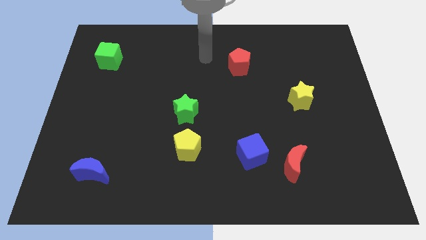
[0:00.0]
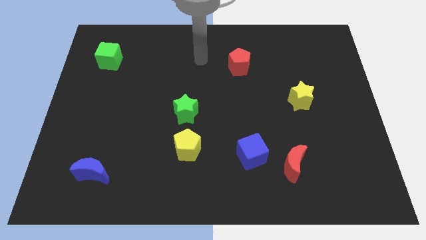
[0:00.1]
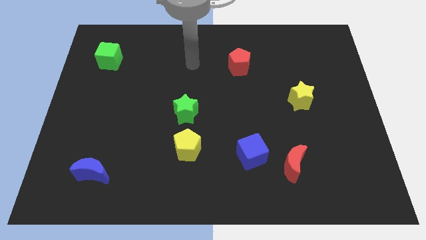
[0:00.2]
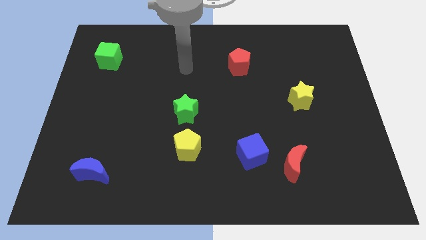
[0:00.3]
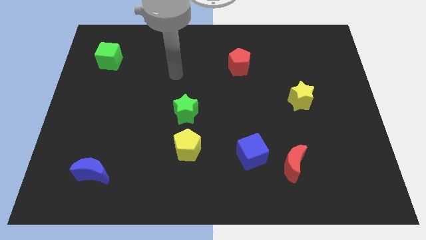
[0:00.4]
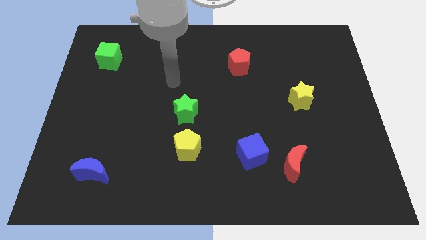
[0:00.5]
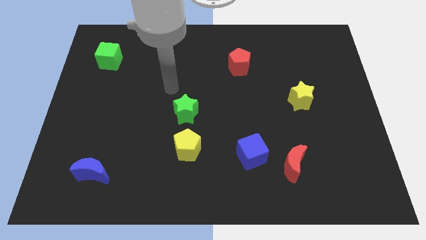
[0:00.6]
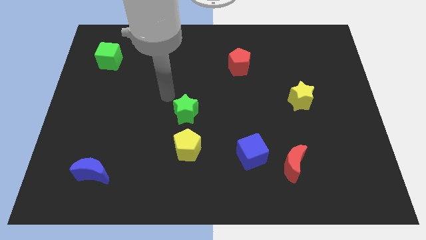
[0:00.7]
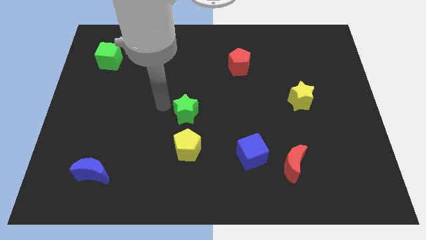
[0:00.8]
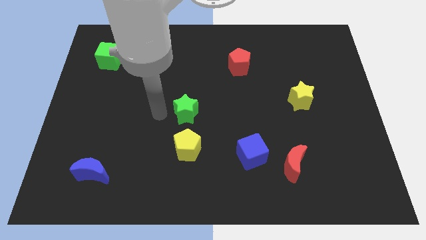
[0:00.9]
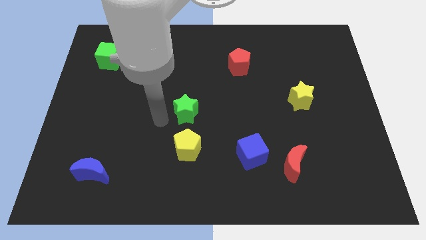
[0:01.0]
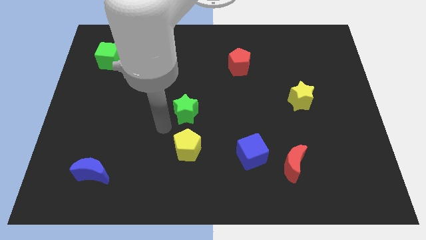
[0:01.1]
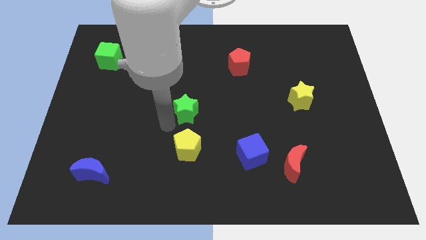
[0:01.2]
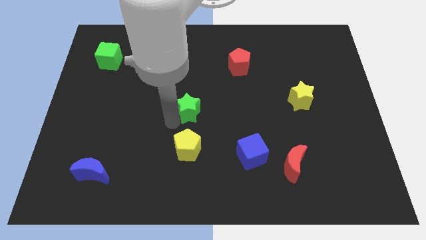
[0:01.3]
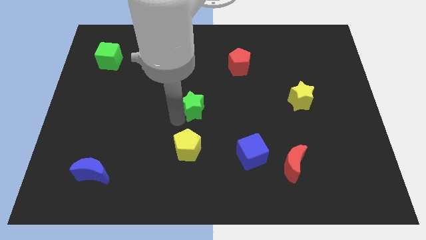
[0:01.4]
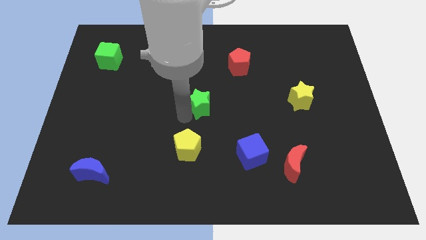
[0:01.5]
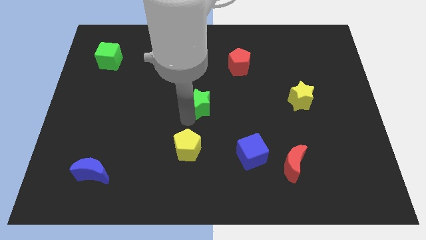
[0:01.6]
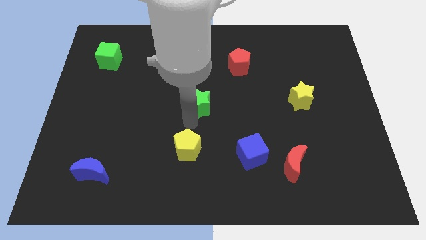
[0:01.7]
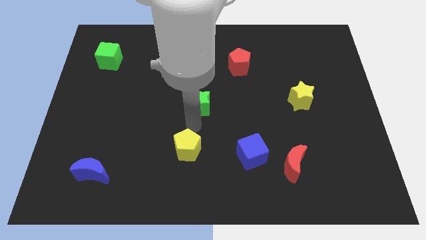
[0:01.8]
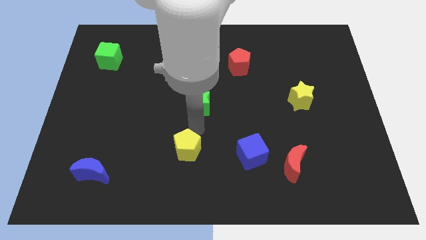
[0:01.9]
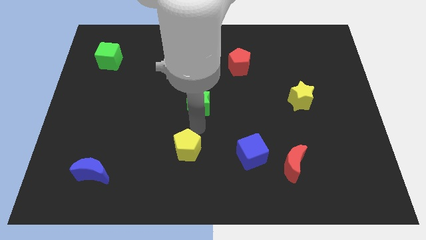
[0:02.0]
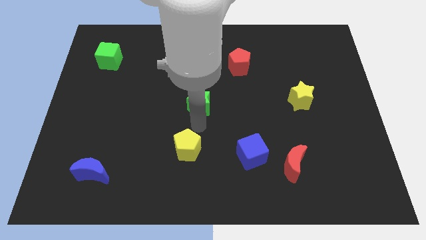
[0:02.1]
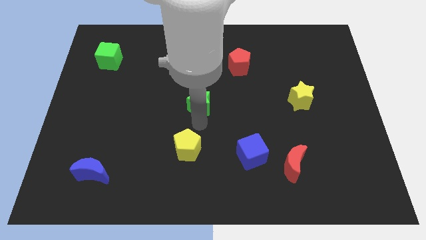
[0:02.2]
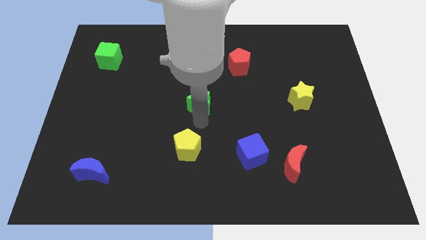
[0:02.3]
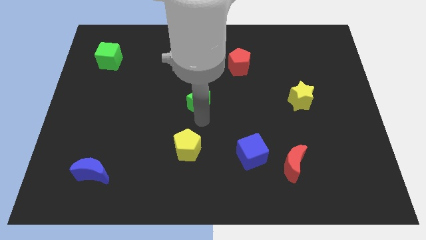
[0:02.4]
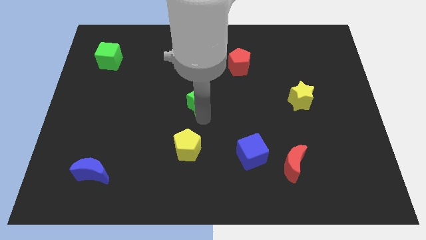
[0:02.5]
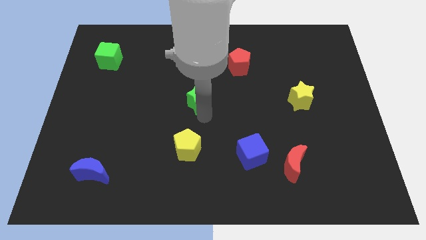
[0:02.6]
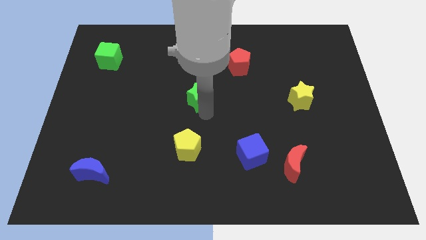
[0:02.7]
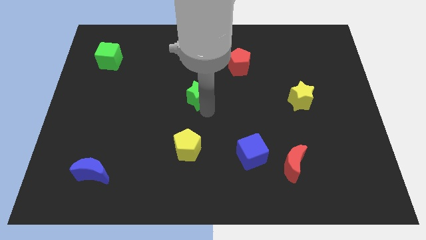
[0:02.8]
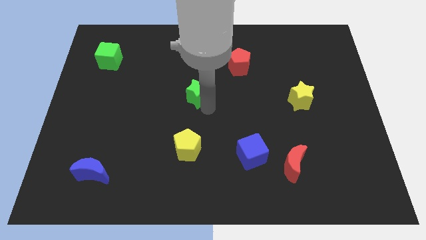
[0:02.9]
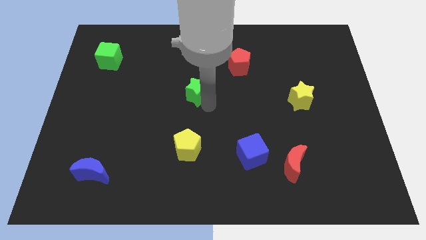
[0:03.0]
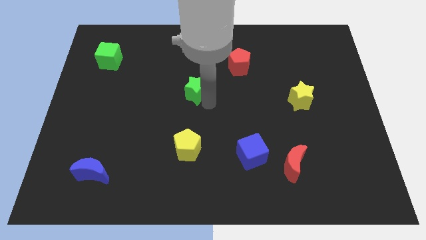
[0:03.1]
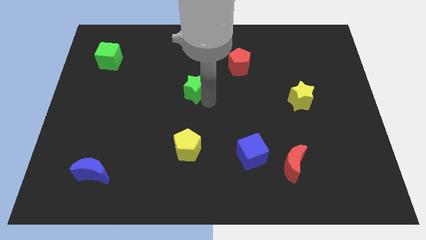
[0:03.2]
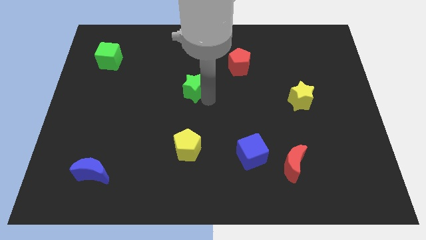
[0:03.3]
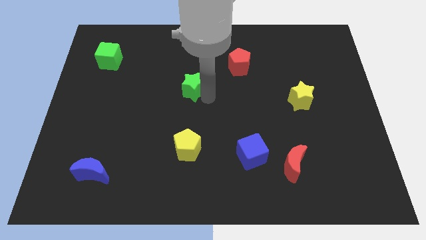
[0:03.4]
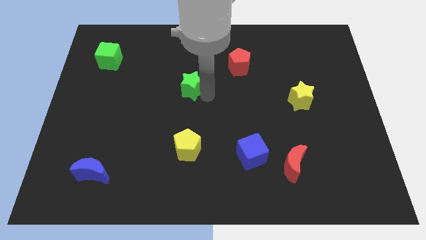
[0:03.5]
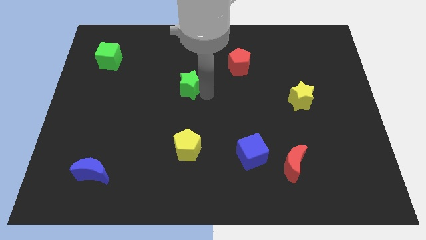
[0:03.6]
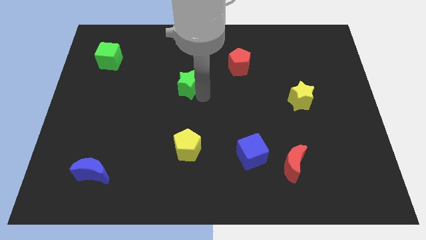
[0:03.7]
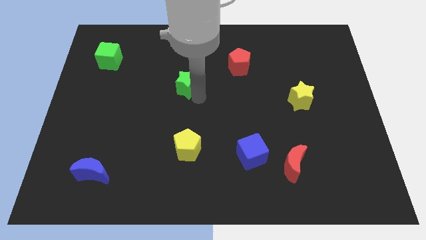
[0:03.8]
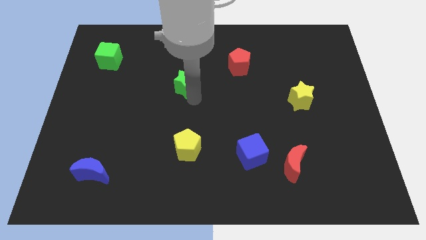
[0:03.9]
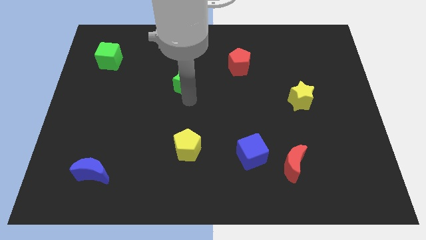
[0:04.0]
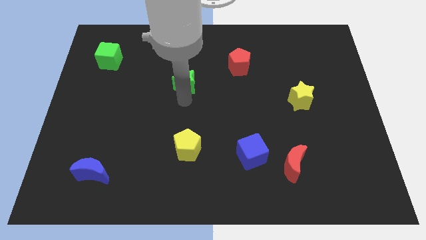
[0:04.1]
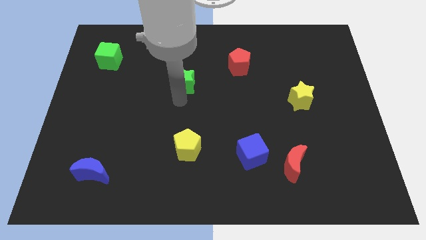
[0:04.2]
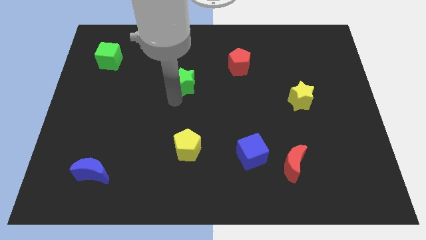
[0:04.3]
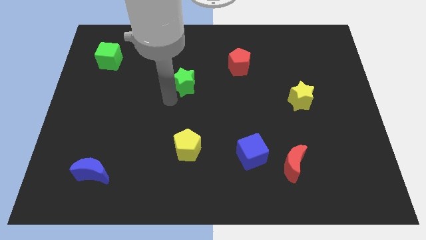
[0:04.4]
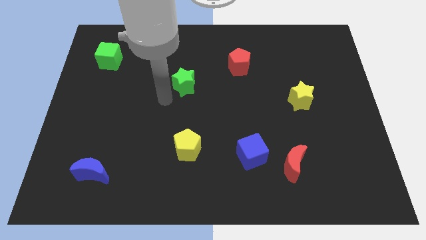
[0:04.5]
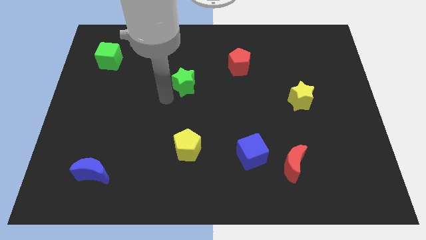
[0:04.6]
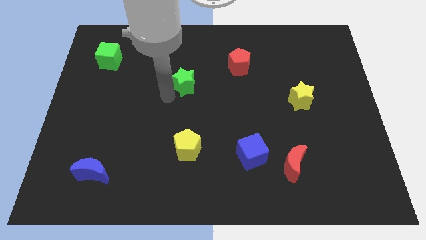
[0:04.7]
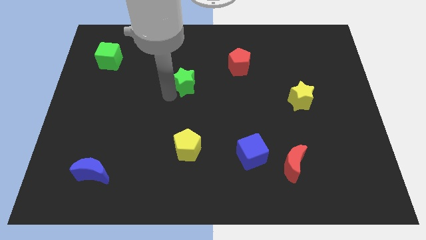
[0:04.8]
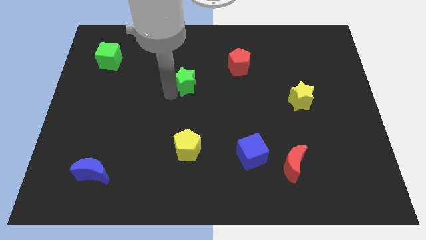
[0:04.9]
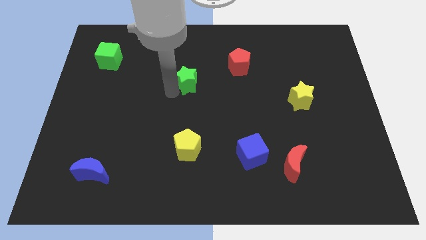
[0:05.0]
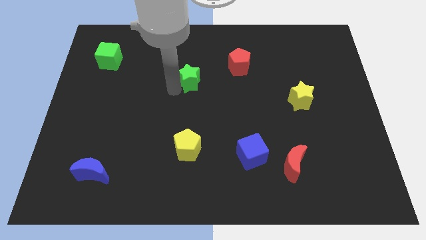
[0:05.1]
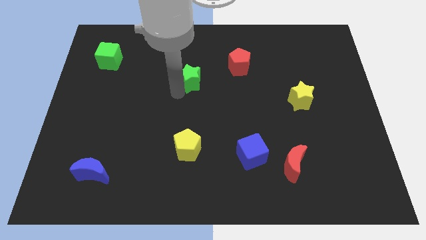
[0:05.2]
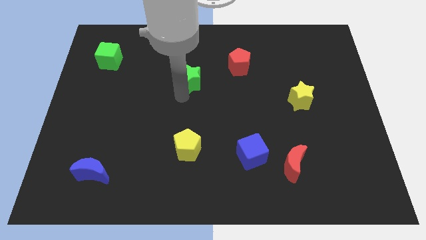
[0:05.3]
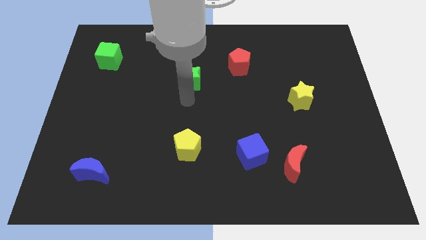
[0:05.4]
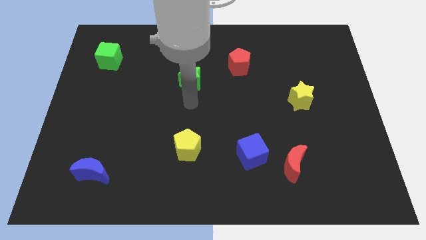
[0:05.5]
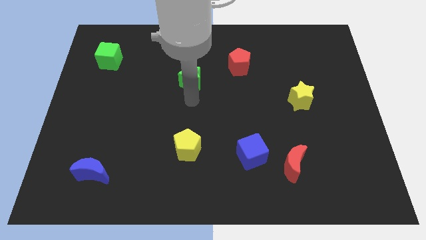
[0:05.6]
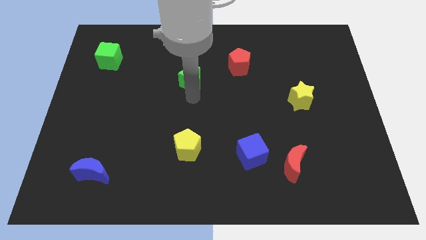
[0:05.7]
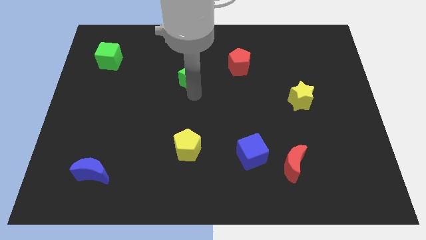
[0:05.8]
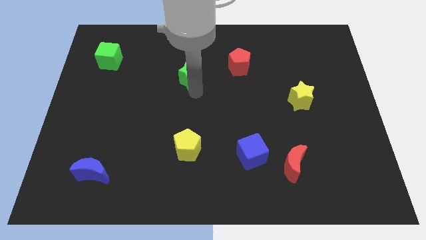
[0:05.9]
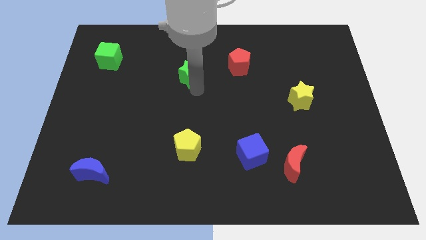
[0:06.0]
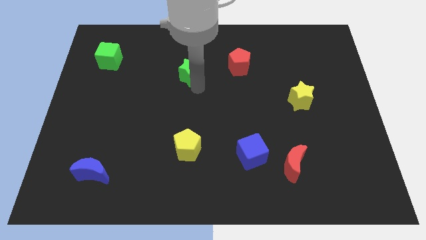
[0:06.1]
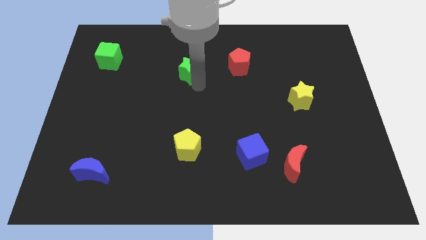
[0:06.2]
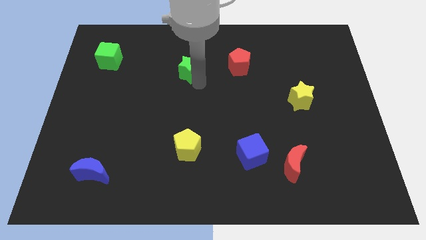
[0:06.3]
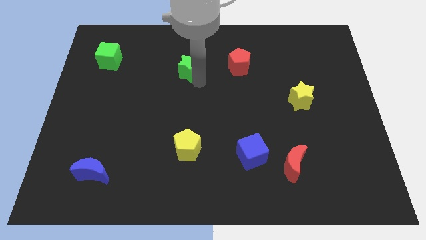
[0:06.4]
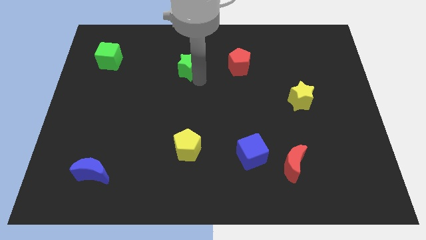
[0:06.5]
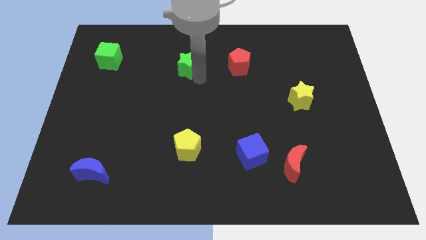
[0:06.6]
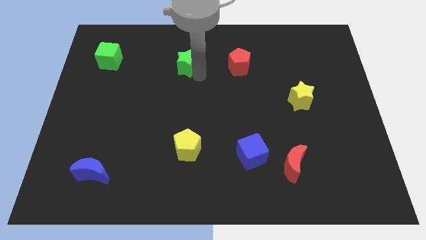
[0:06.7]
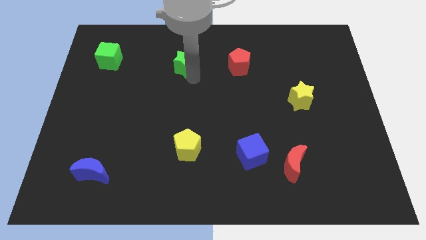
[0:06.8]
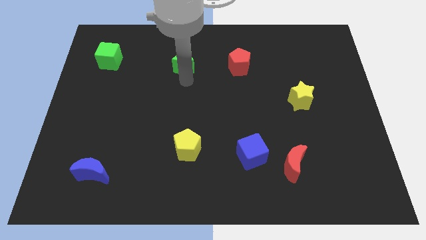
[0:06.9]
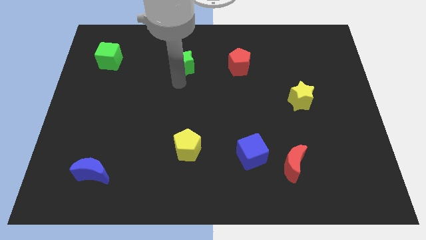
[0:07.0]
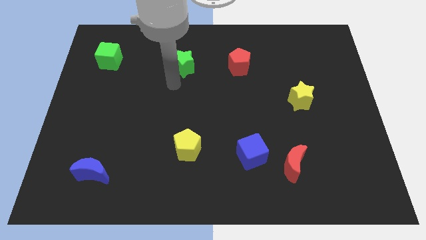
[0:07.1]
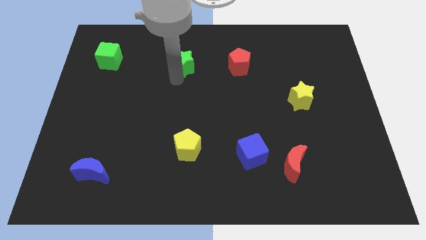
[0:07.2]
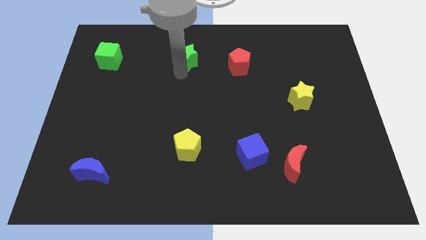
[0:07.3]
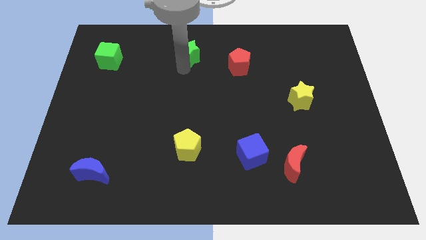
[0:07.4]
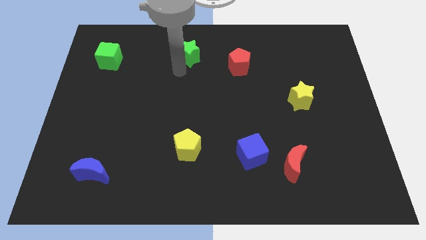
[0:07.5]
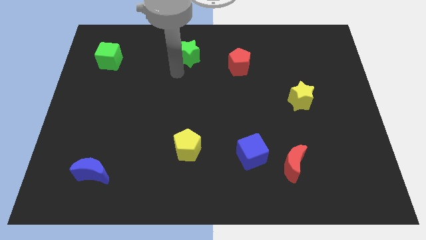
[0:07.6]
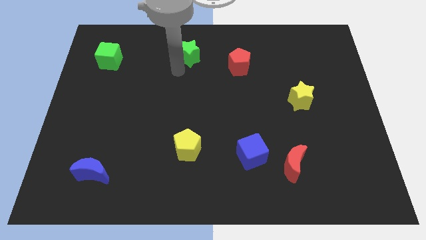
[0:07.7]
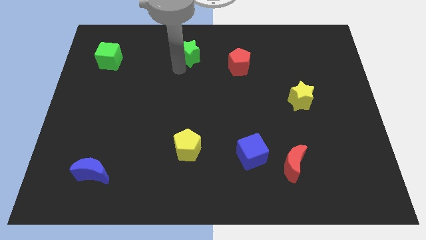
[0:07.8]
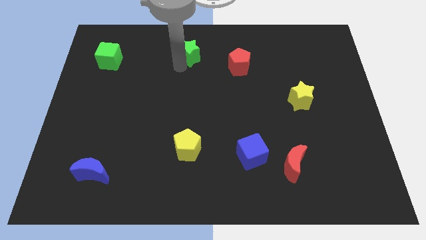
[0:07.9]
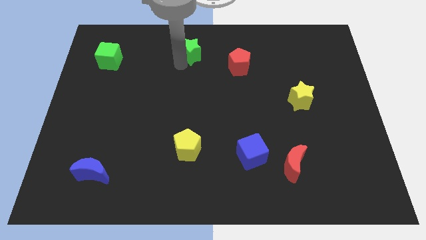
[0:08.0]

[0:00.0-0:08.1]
move the green star to the towards your base
